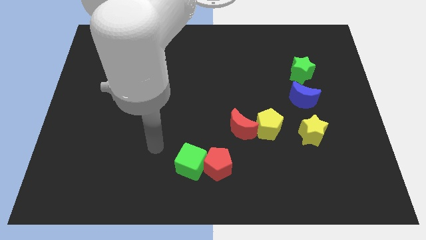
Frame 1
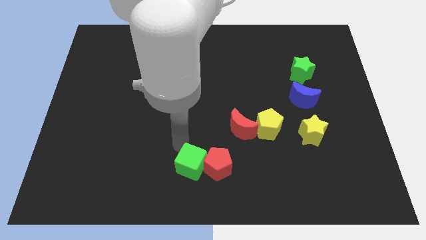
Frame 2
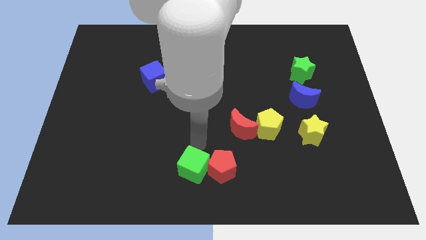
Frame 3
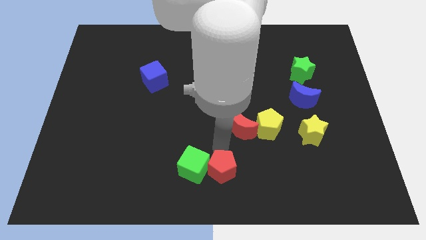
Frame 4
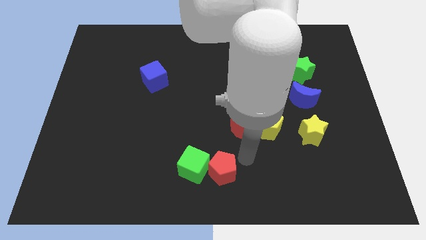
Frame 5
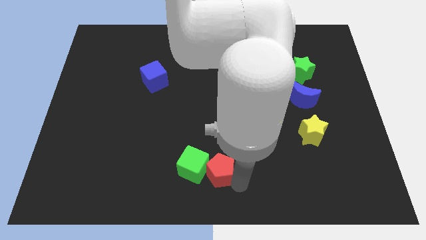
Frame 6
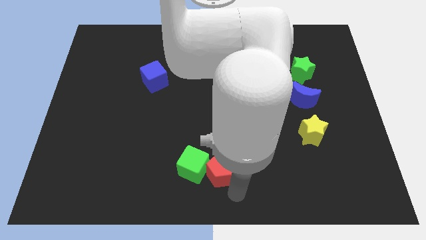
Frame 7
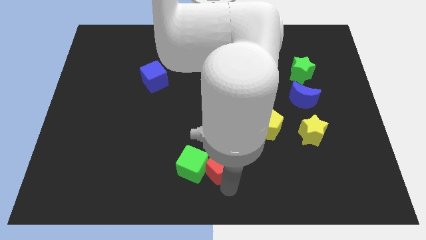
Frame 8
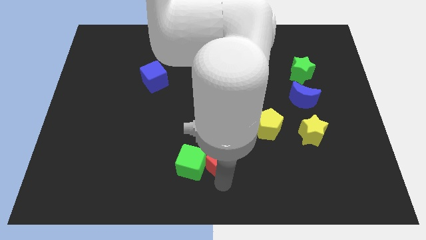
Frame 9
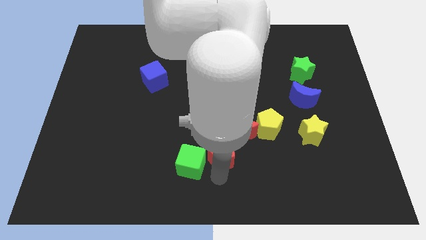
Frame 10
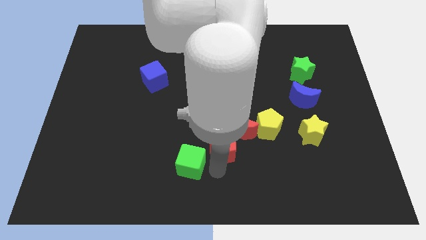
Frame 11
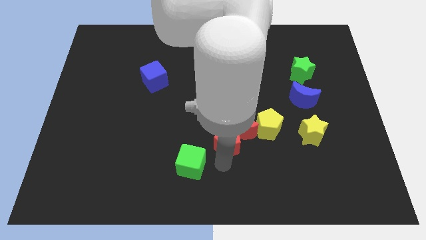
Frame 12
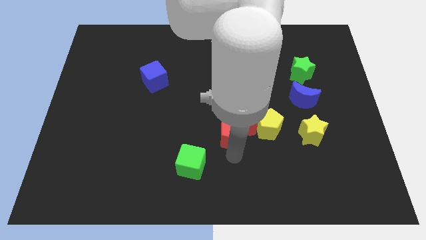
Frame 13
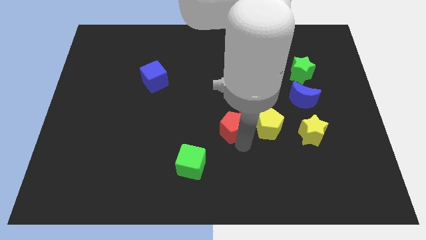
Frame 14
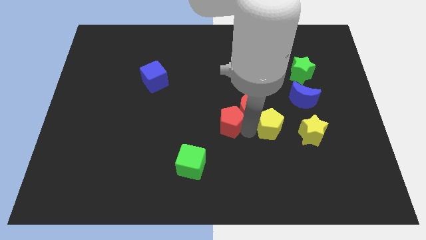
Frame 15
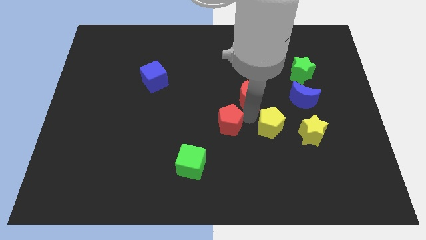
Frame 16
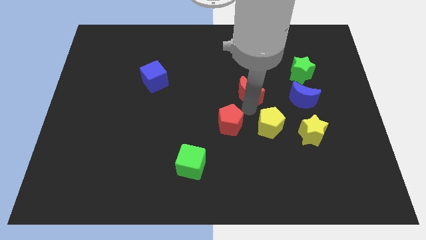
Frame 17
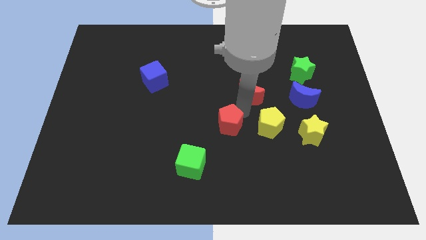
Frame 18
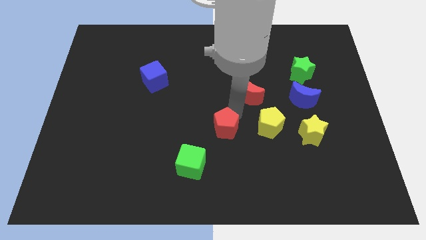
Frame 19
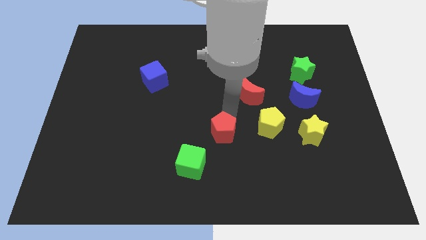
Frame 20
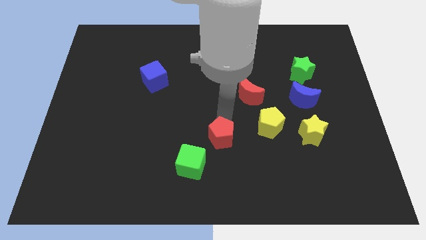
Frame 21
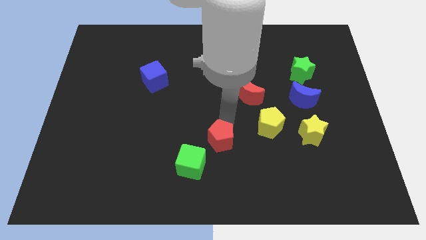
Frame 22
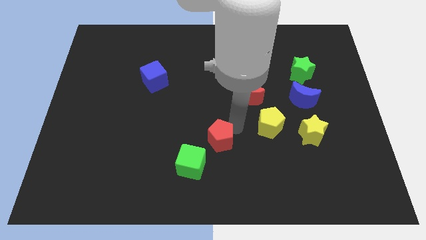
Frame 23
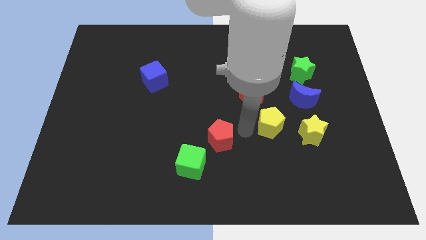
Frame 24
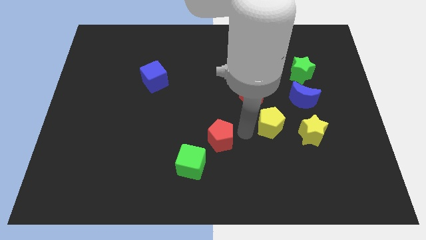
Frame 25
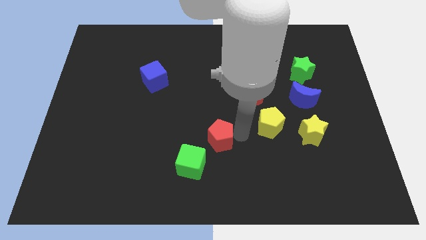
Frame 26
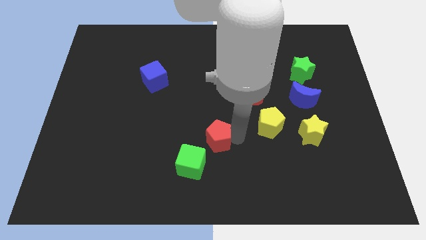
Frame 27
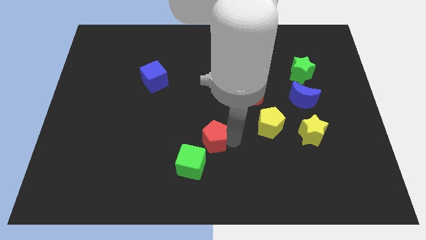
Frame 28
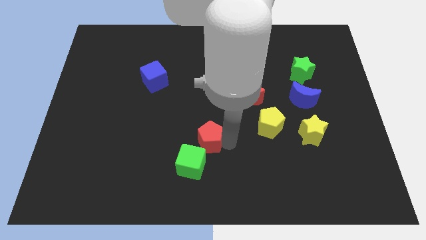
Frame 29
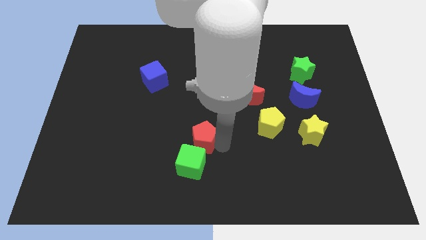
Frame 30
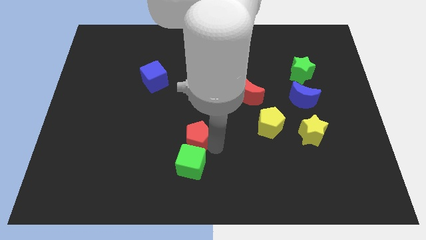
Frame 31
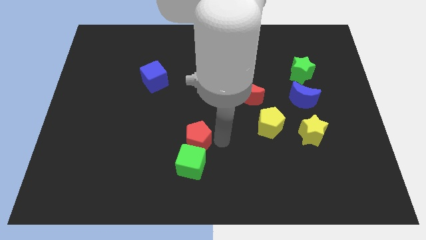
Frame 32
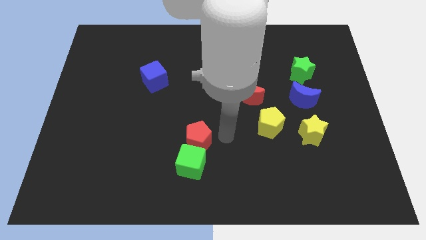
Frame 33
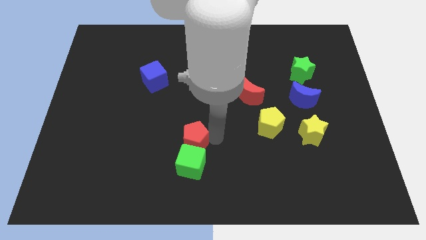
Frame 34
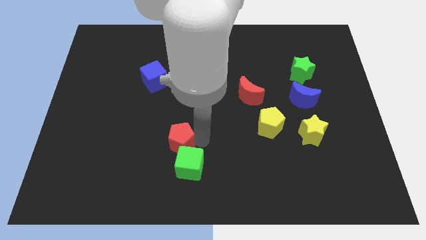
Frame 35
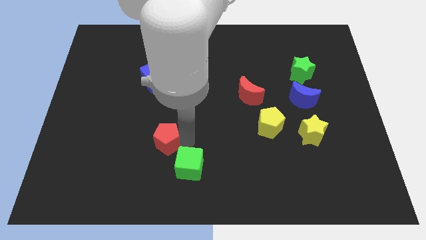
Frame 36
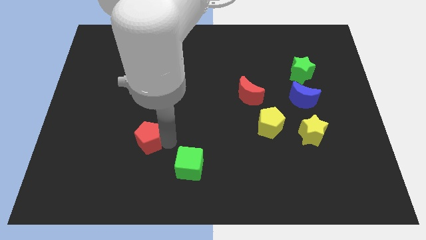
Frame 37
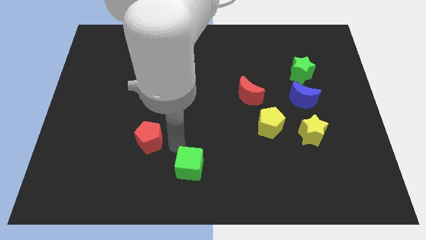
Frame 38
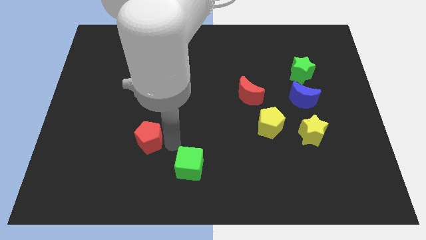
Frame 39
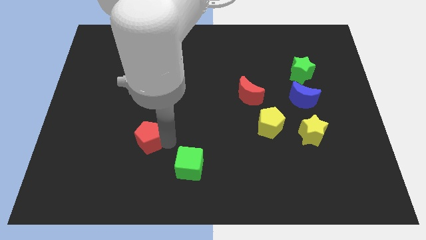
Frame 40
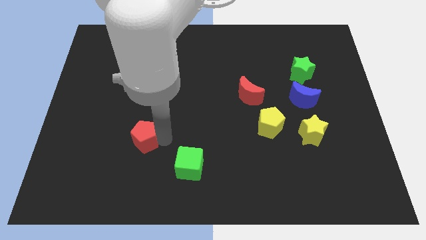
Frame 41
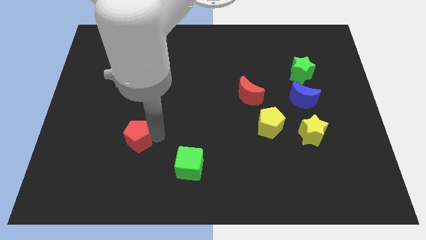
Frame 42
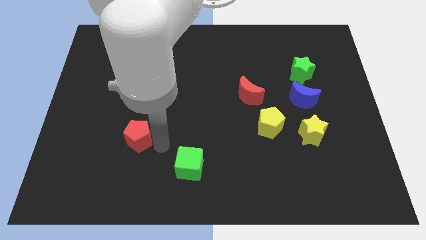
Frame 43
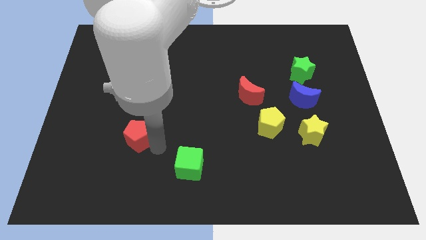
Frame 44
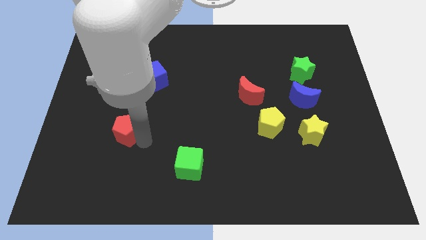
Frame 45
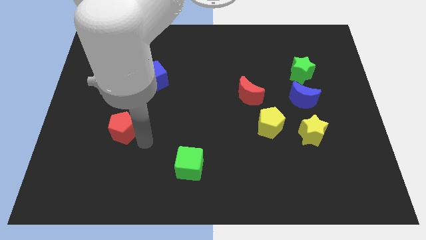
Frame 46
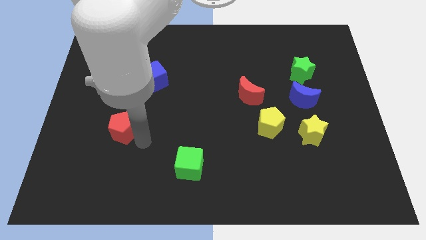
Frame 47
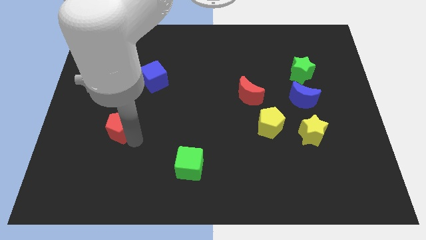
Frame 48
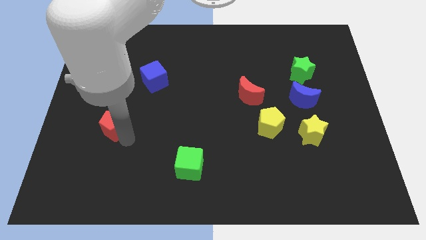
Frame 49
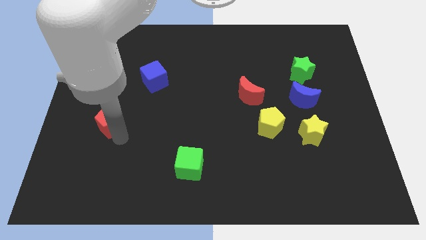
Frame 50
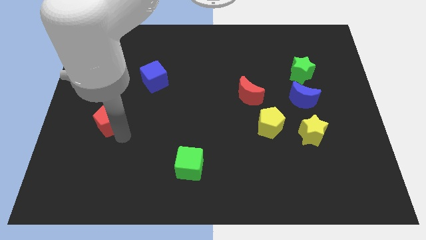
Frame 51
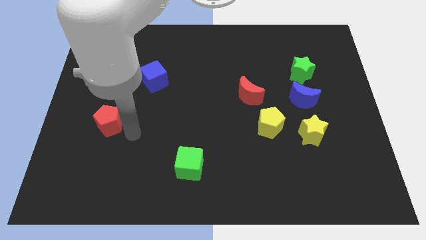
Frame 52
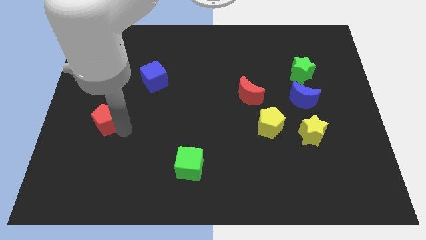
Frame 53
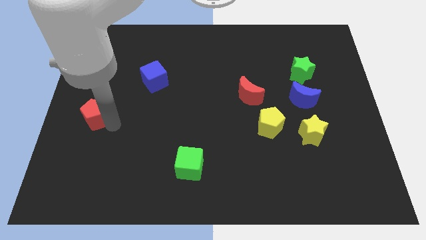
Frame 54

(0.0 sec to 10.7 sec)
slide the red pentagon to the left side

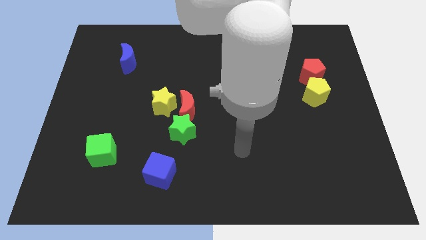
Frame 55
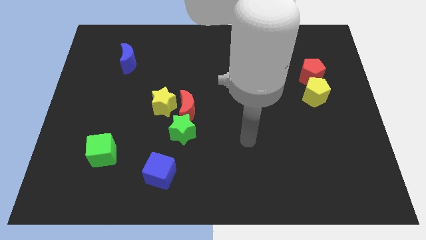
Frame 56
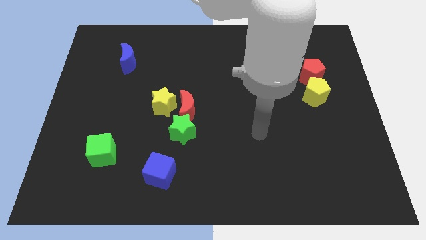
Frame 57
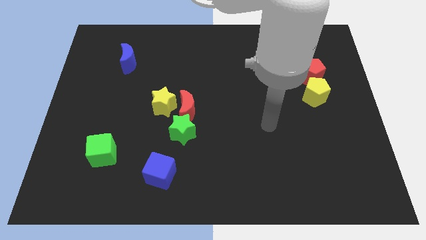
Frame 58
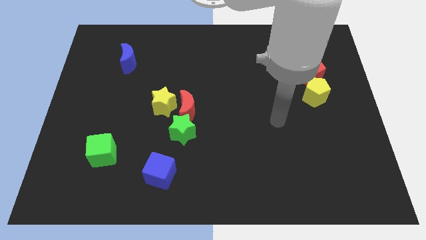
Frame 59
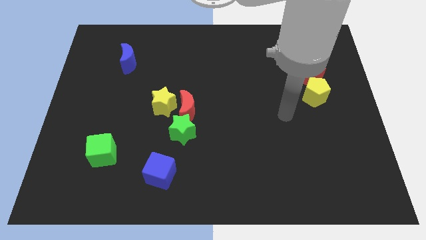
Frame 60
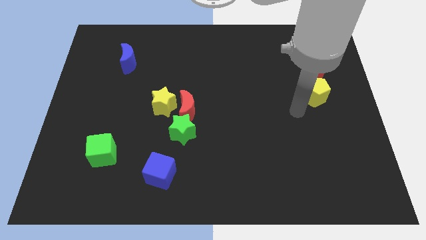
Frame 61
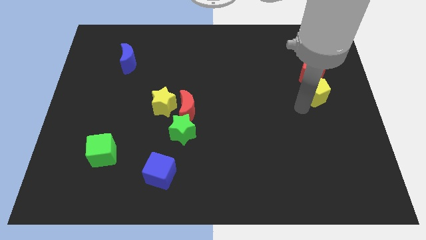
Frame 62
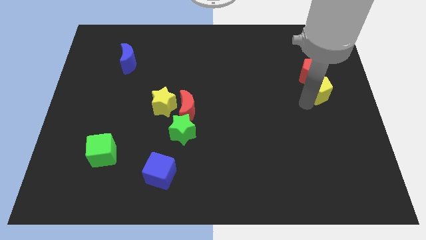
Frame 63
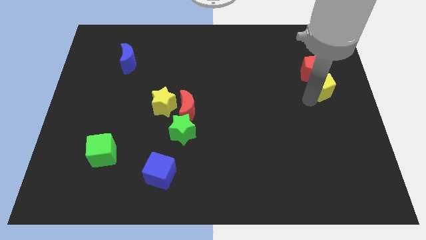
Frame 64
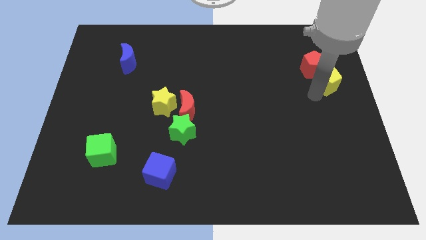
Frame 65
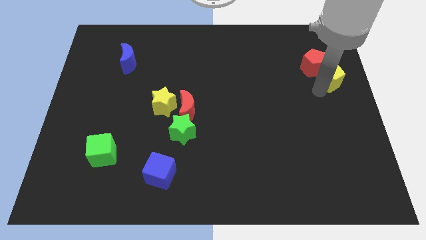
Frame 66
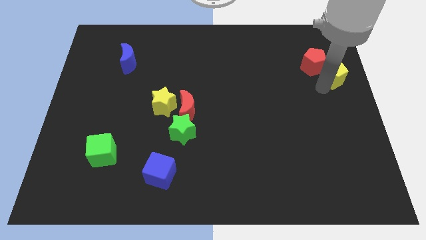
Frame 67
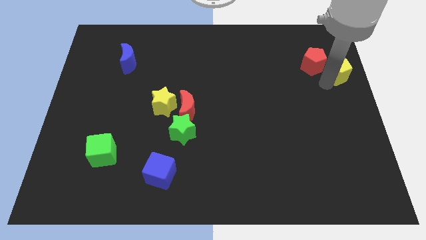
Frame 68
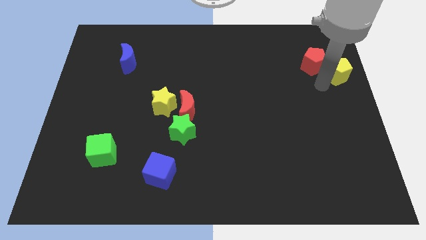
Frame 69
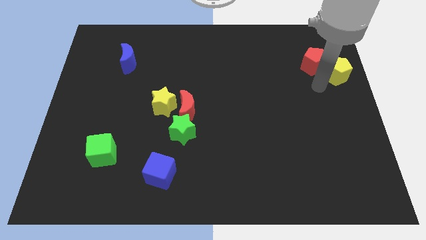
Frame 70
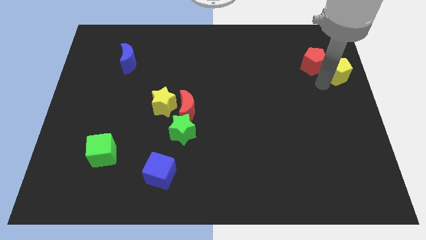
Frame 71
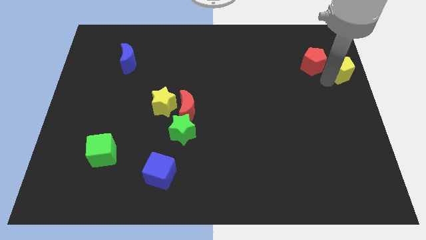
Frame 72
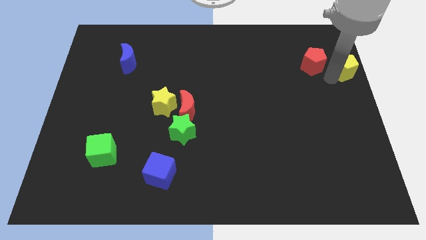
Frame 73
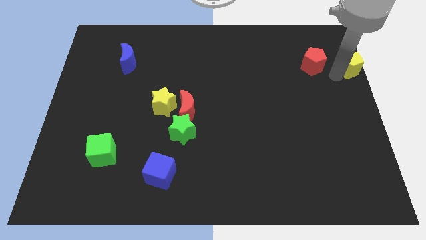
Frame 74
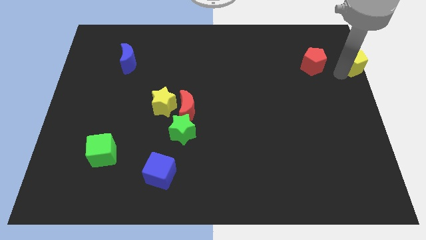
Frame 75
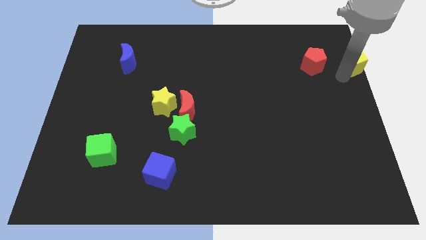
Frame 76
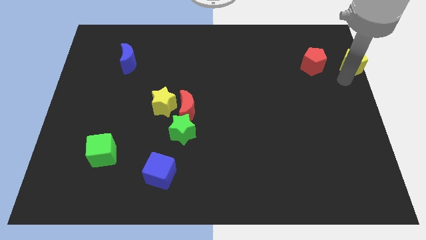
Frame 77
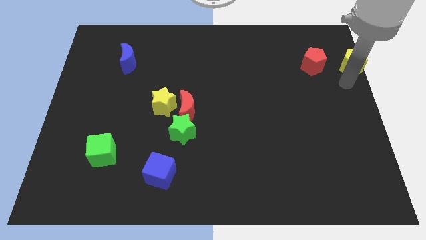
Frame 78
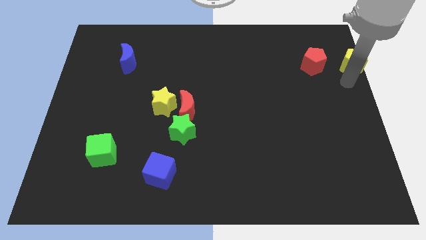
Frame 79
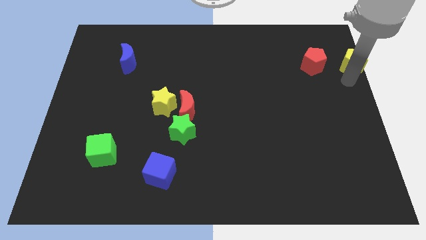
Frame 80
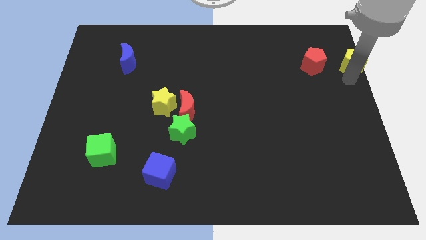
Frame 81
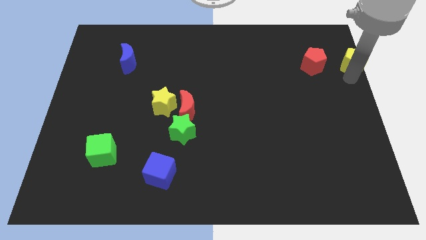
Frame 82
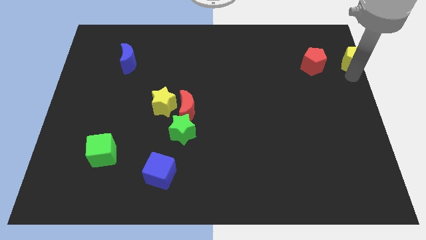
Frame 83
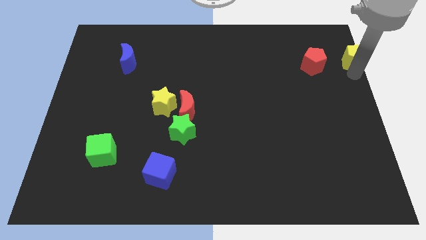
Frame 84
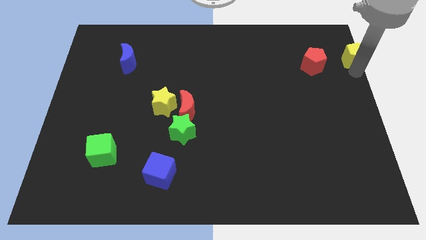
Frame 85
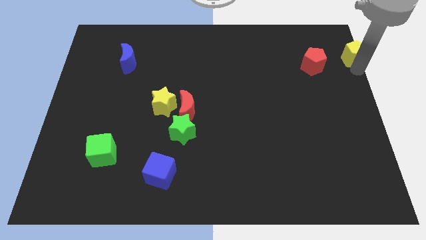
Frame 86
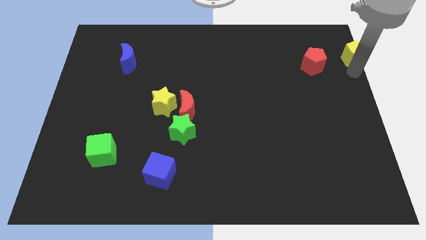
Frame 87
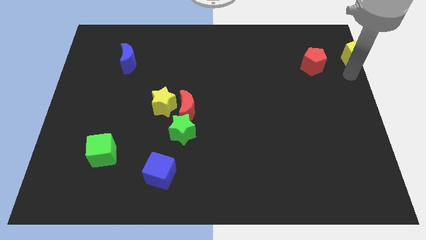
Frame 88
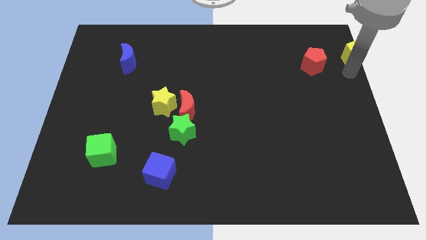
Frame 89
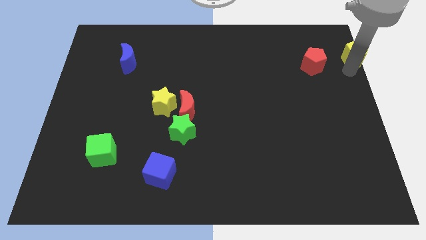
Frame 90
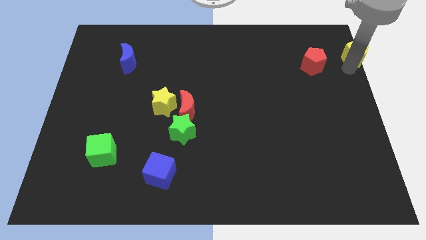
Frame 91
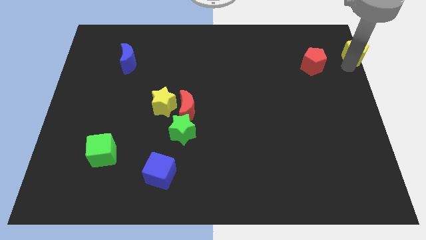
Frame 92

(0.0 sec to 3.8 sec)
move the yellow pentagon to the top right
